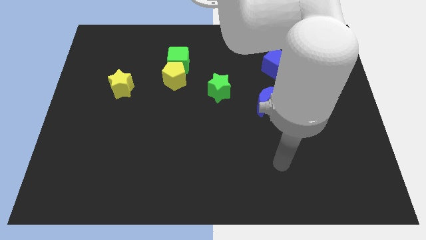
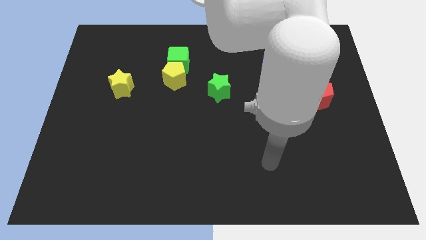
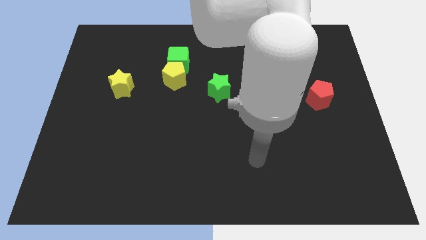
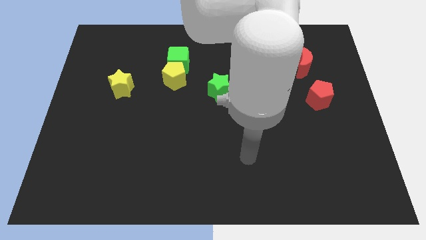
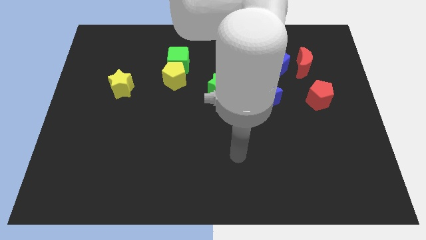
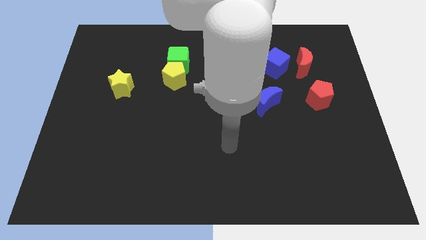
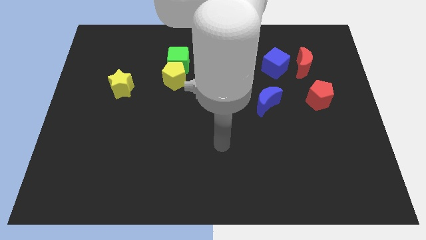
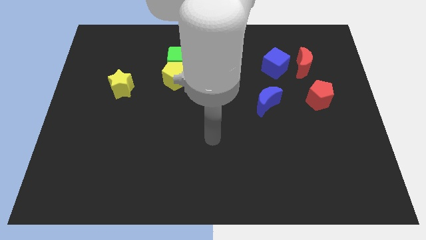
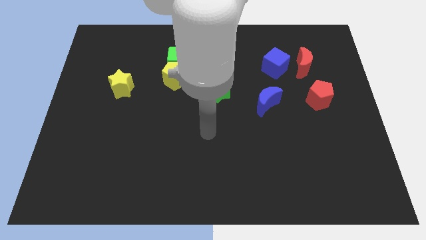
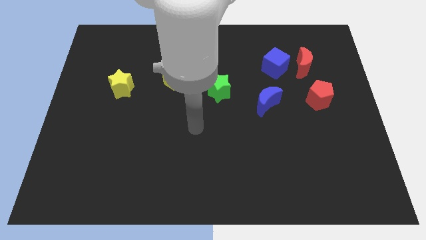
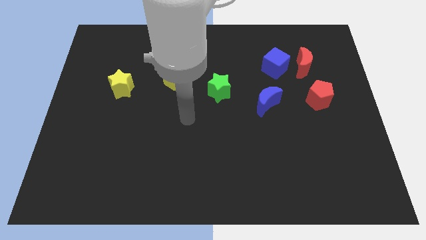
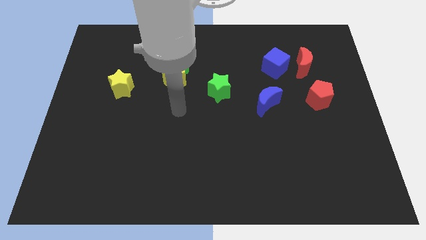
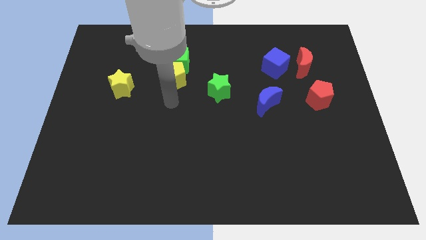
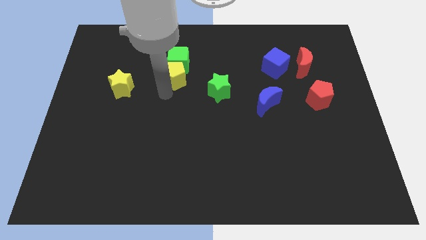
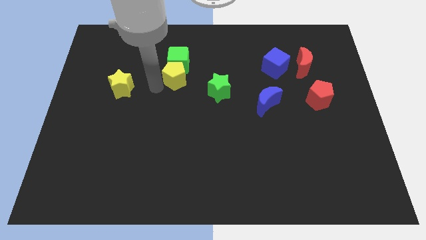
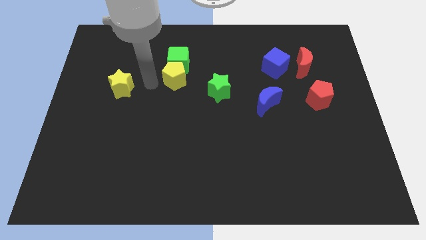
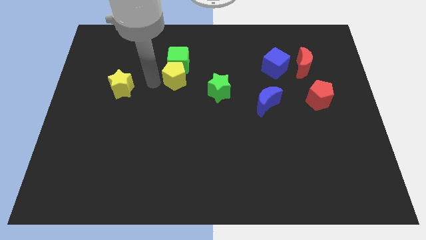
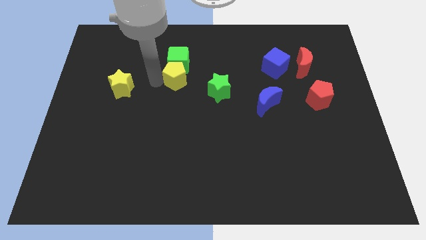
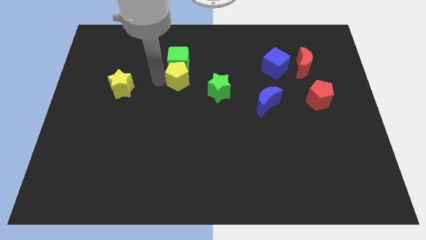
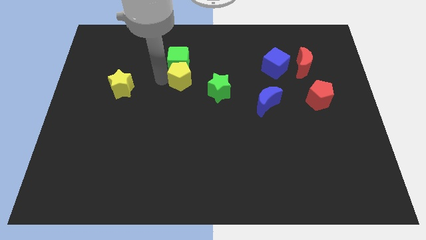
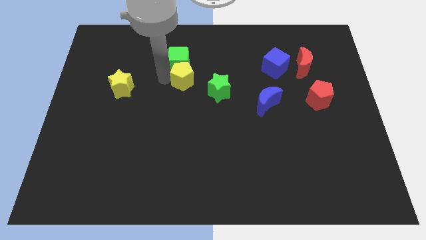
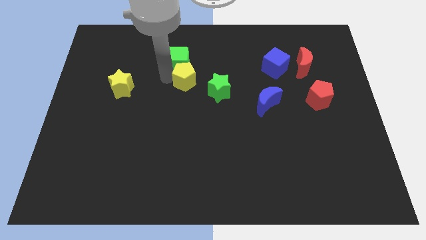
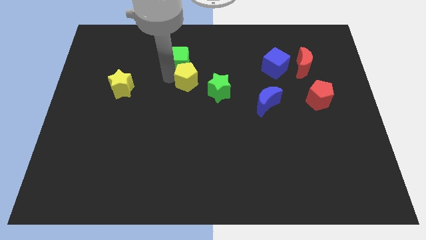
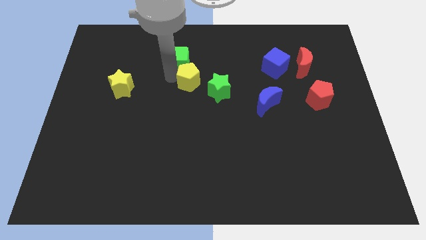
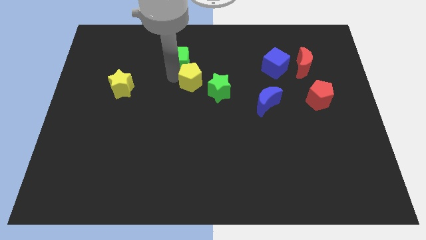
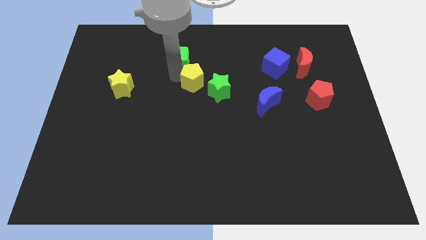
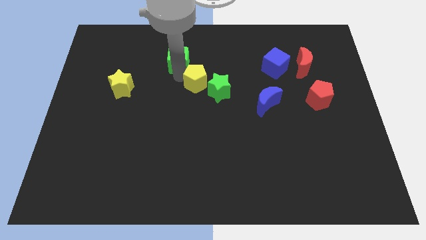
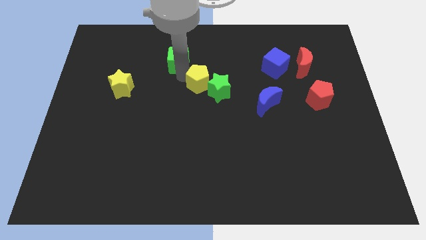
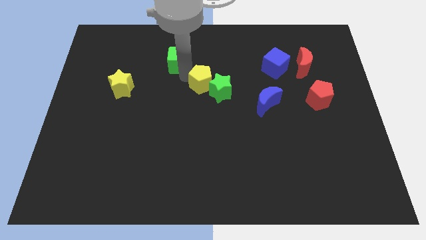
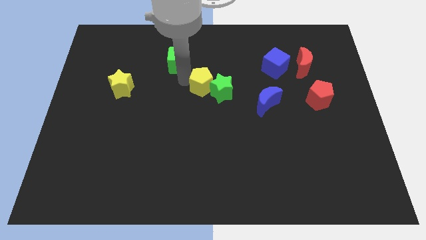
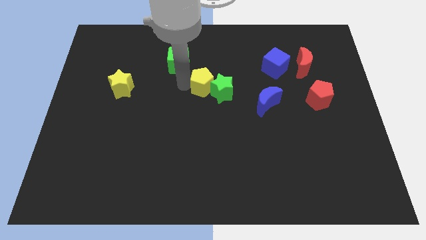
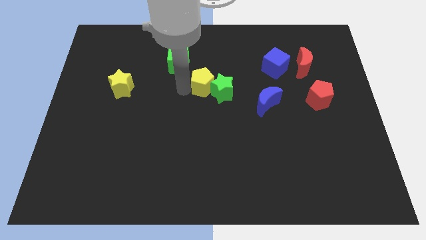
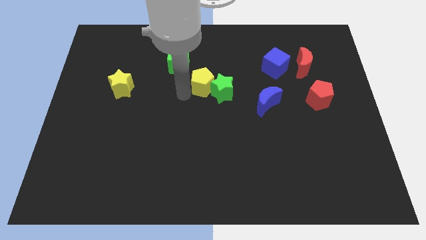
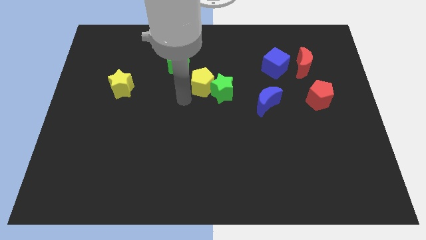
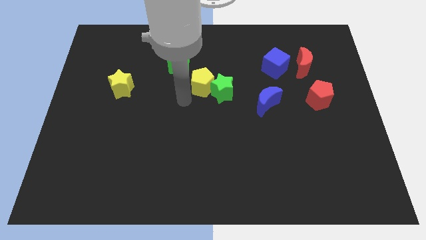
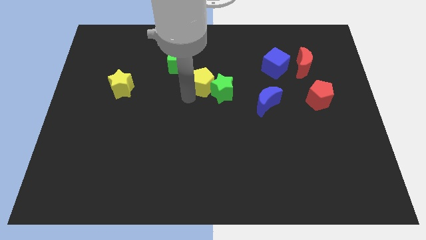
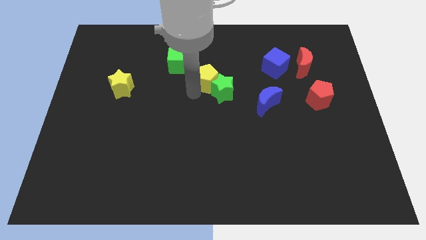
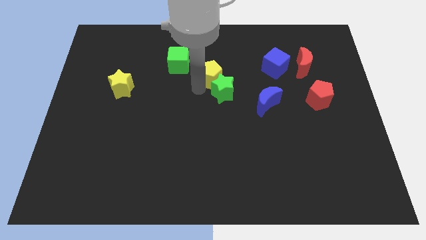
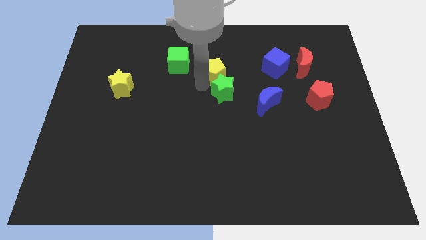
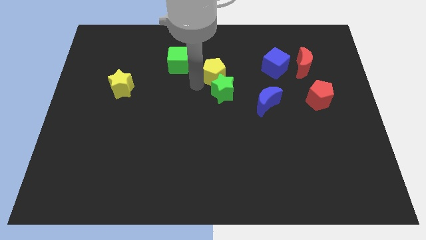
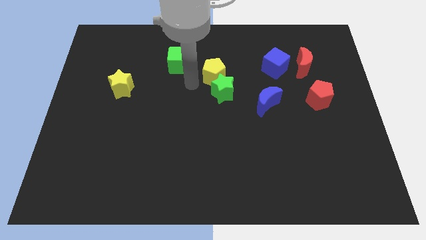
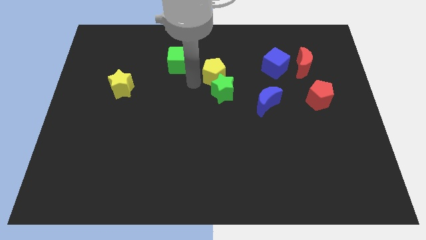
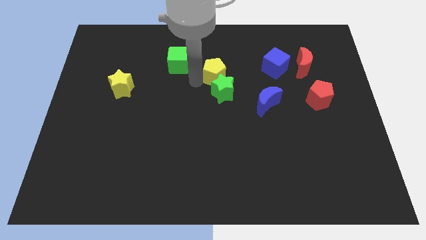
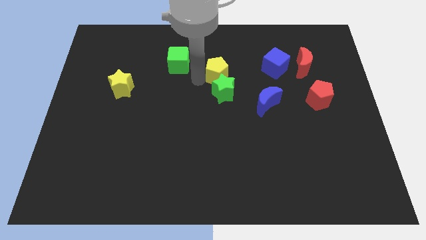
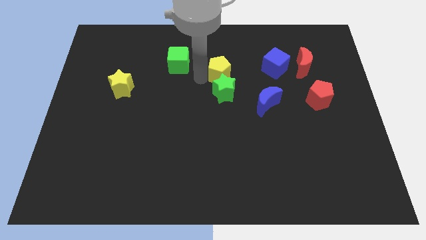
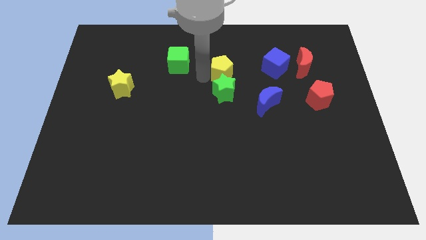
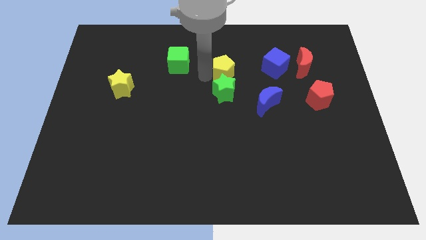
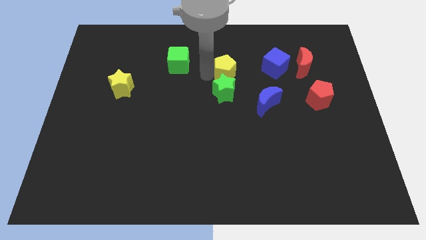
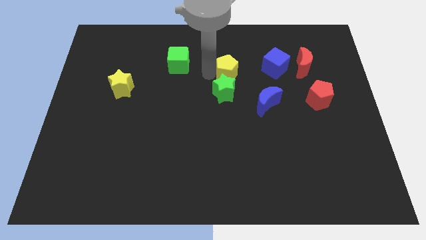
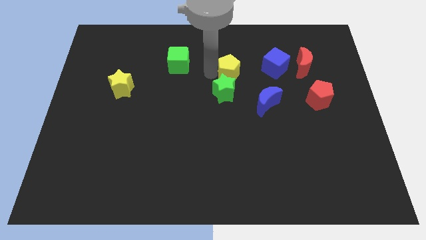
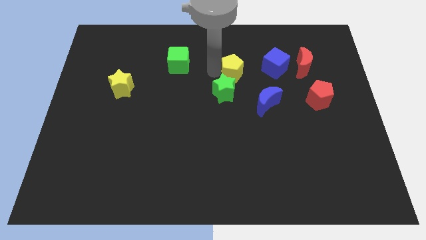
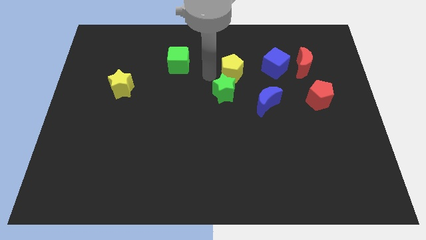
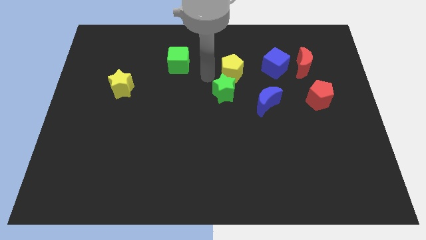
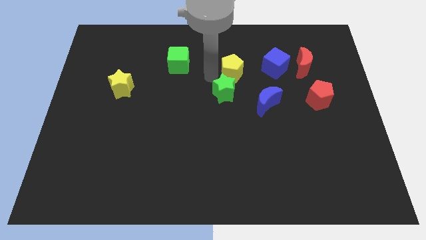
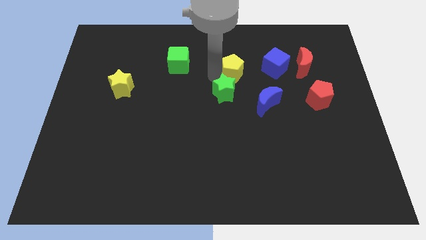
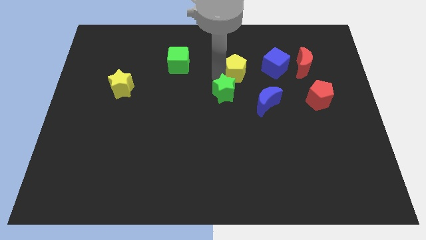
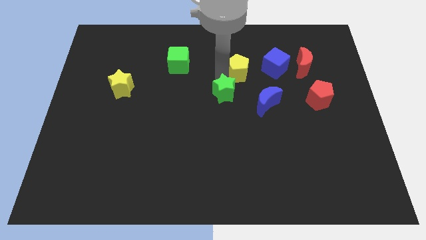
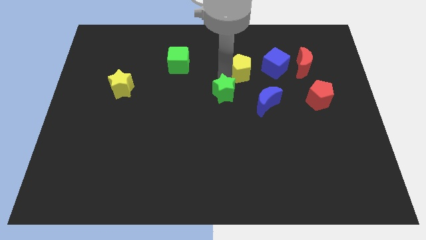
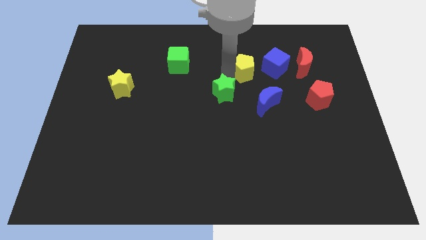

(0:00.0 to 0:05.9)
slide the yellow pentagon to the left side of the red moon

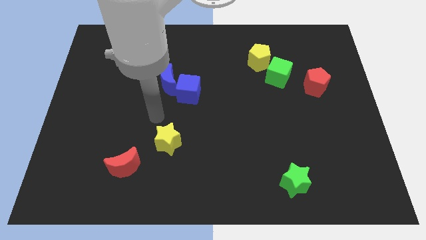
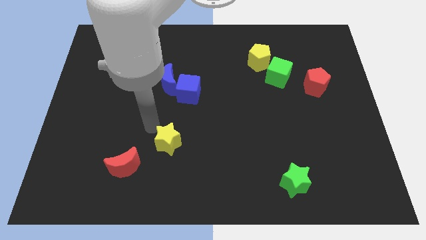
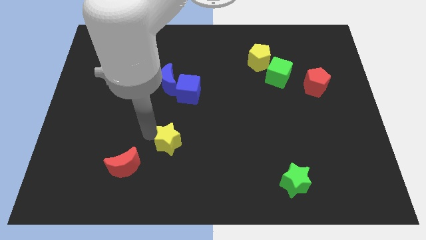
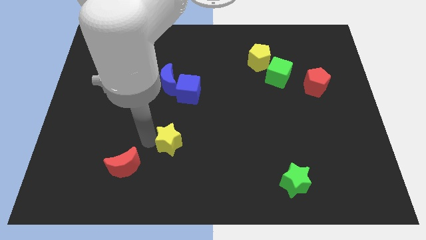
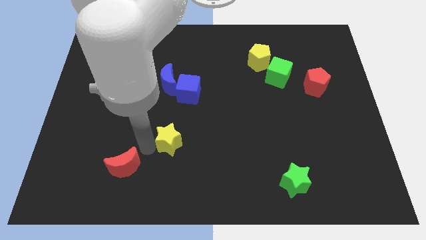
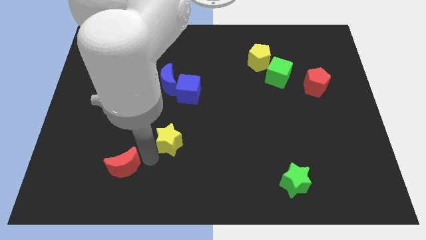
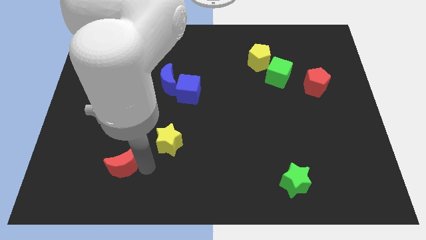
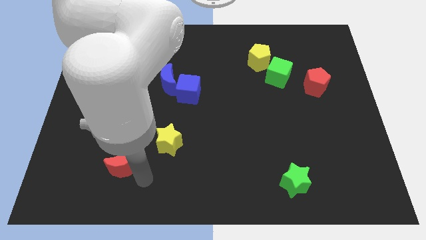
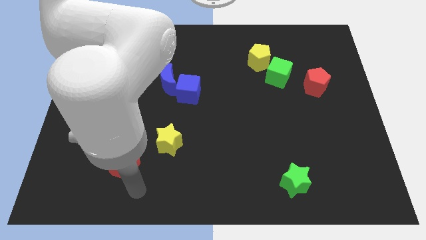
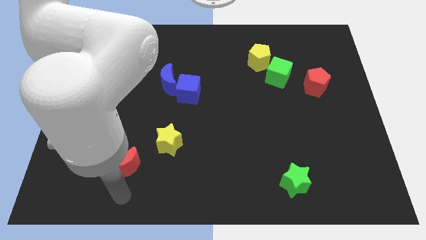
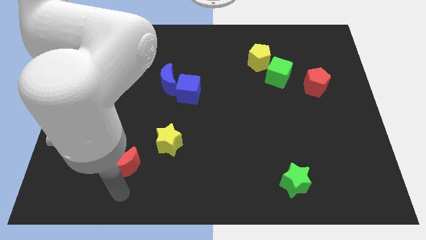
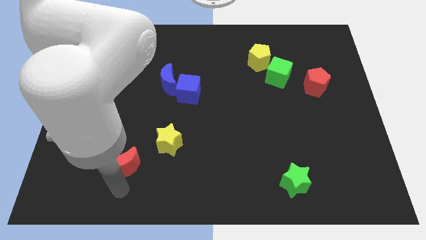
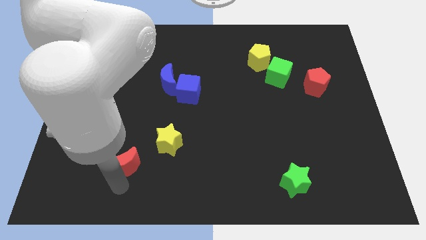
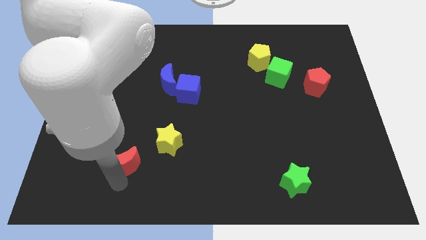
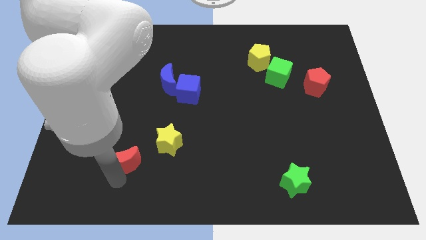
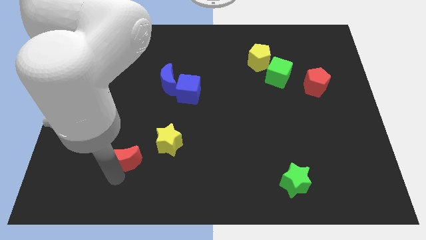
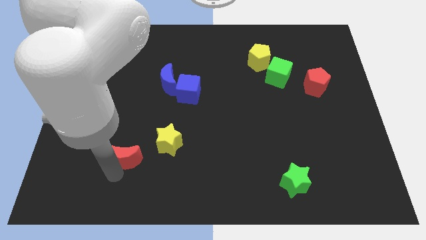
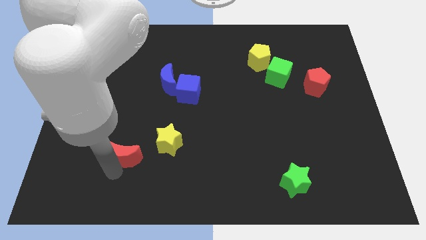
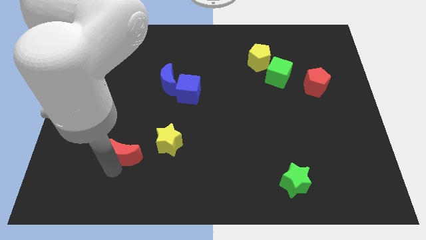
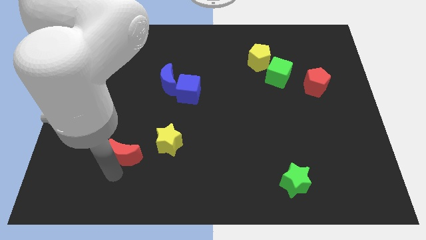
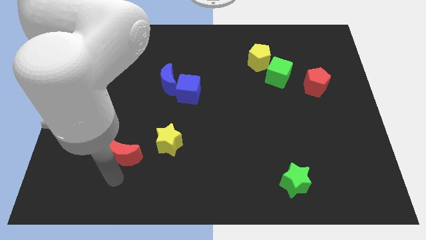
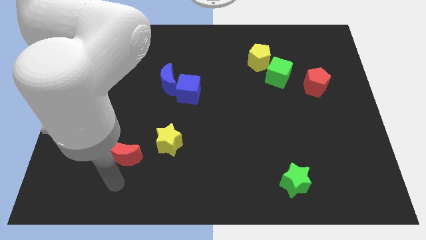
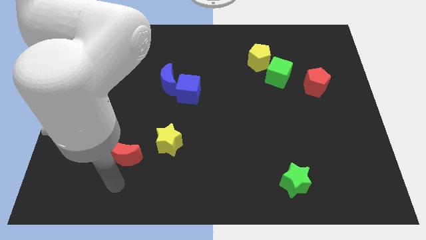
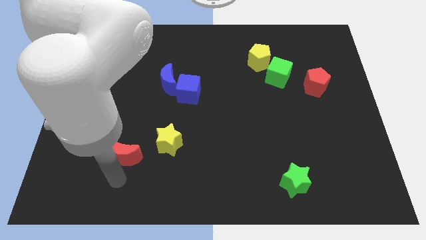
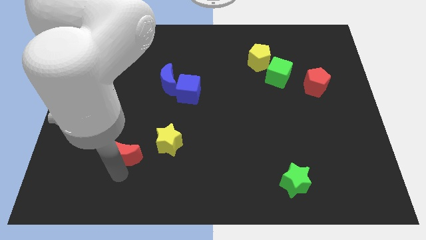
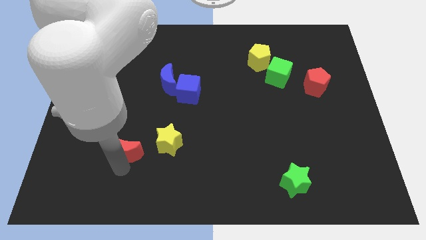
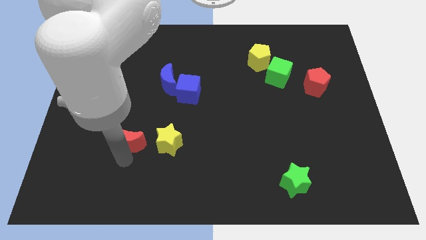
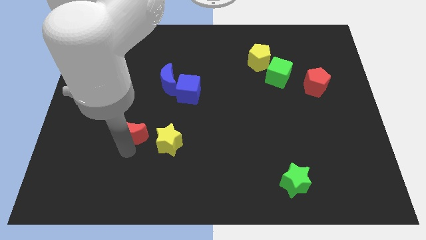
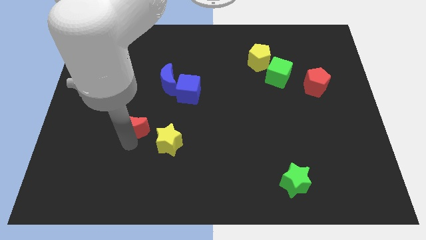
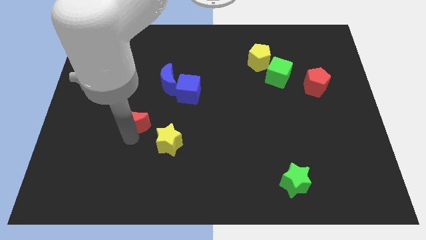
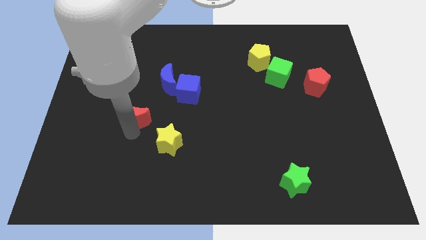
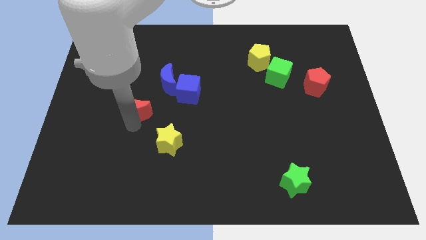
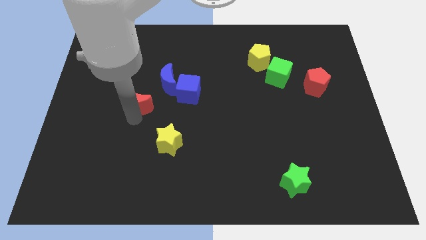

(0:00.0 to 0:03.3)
move the red moon to the left side of the blue cube
